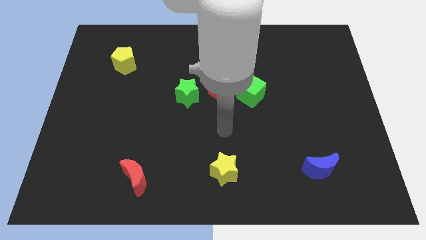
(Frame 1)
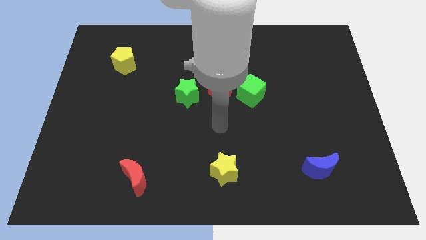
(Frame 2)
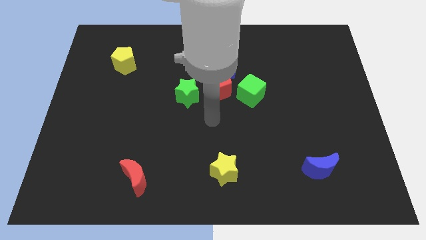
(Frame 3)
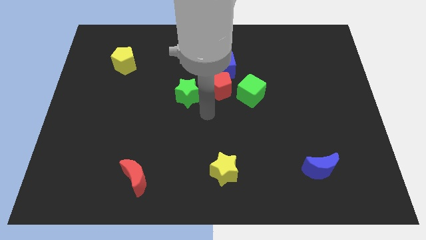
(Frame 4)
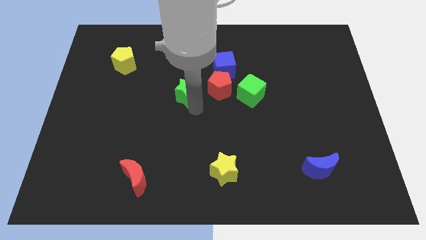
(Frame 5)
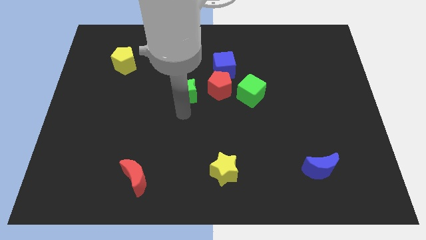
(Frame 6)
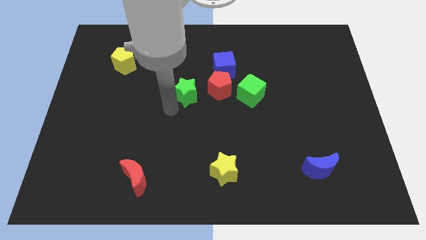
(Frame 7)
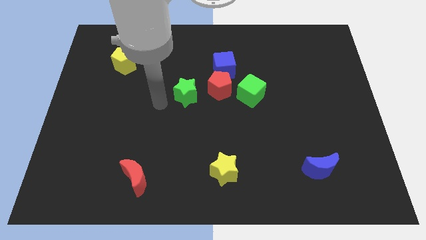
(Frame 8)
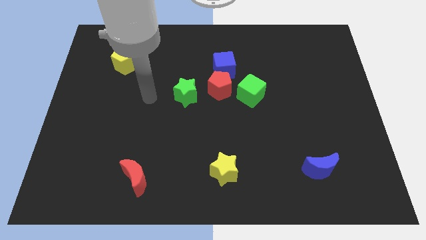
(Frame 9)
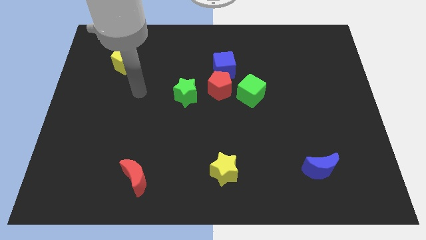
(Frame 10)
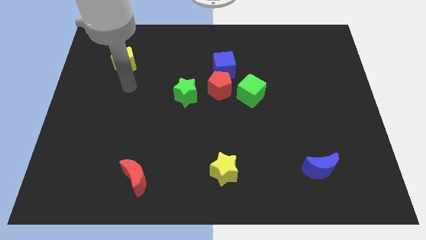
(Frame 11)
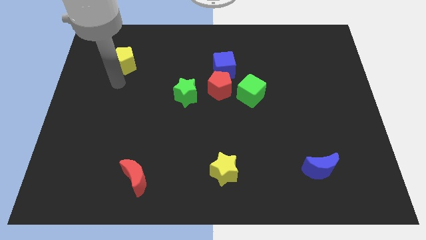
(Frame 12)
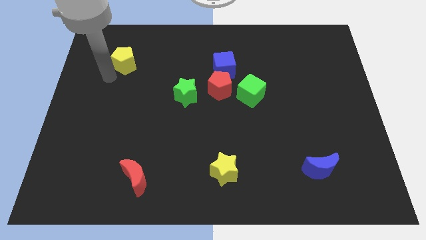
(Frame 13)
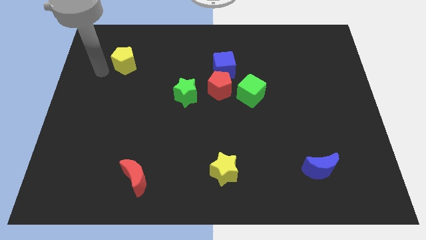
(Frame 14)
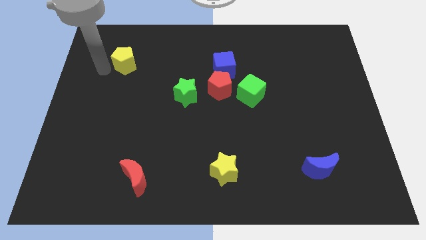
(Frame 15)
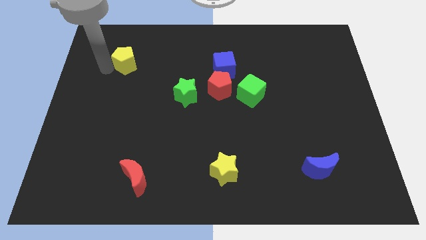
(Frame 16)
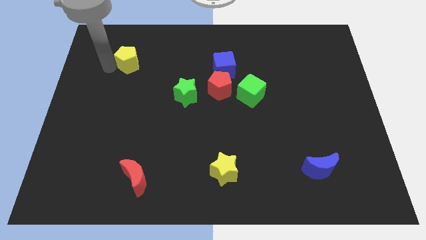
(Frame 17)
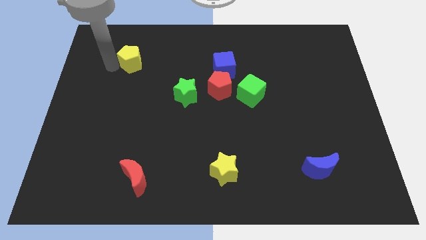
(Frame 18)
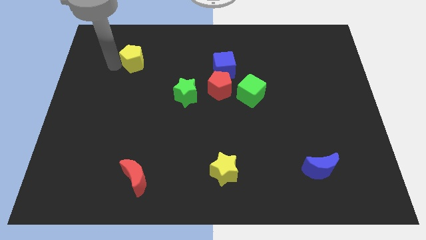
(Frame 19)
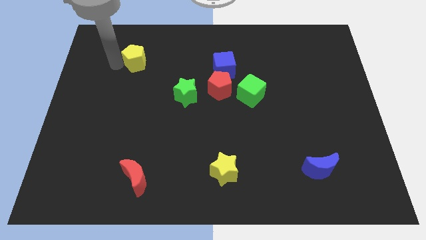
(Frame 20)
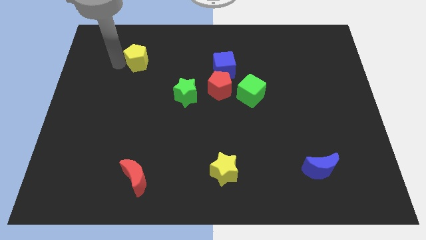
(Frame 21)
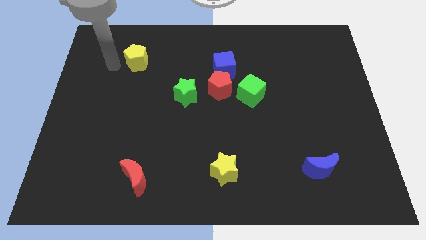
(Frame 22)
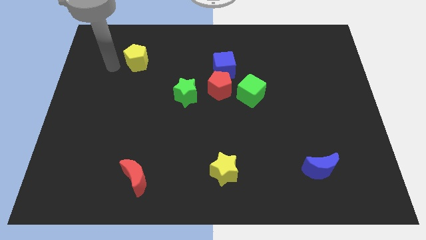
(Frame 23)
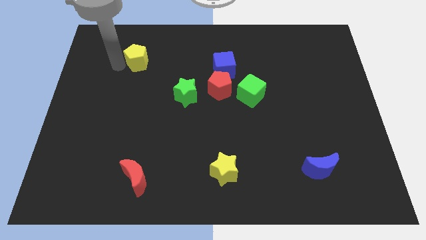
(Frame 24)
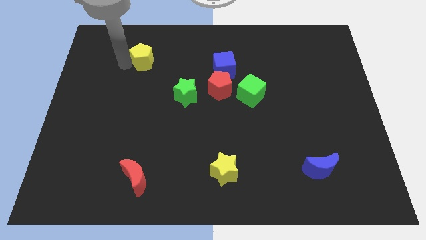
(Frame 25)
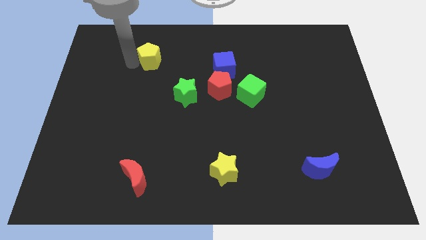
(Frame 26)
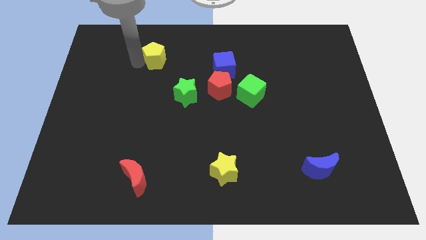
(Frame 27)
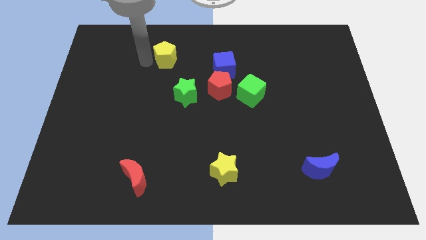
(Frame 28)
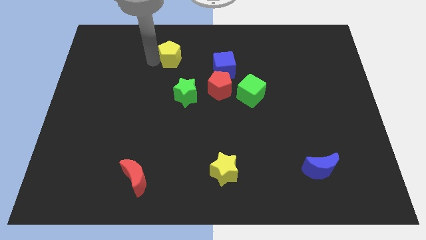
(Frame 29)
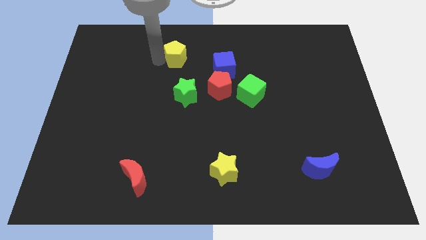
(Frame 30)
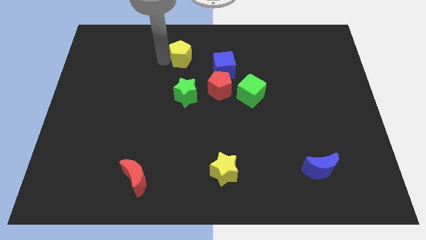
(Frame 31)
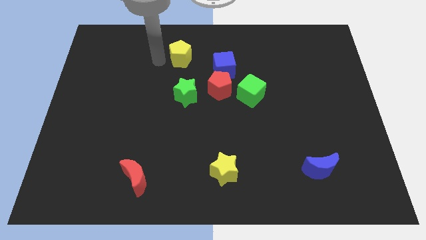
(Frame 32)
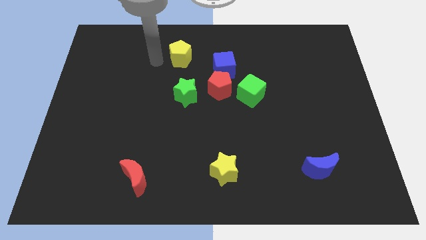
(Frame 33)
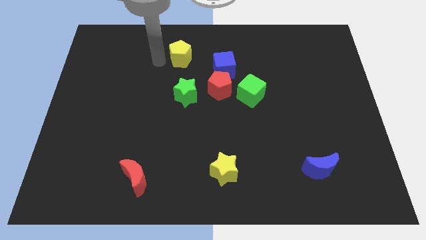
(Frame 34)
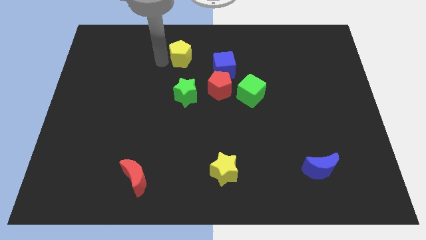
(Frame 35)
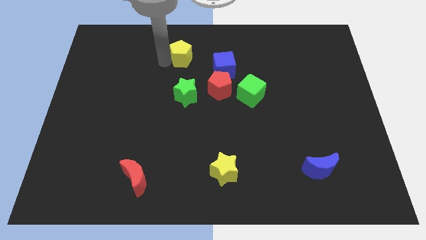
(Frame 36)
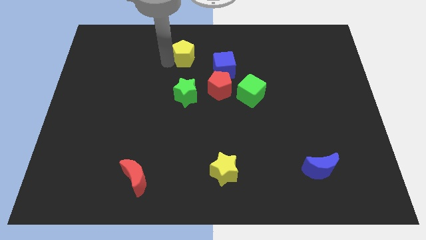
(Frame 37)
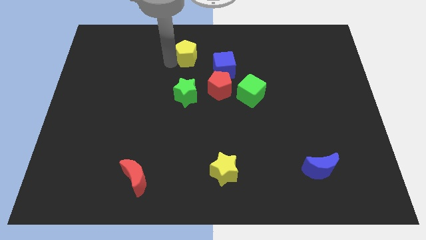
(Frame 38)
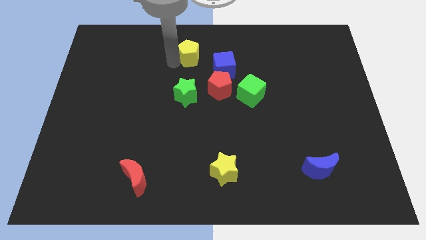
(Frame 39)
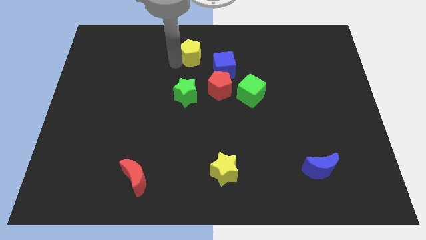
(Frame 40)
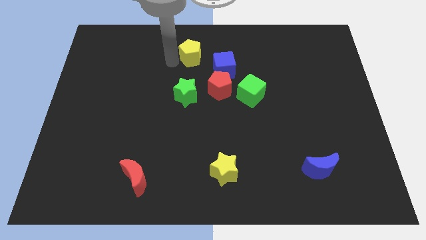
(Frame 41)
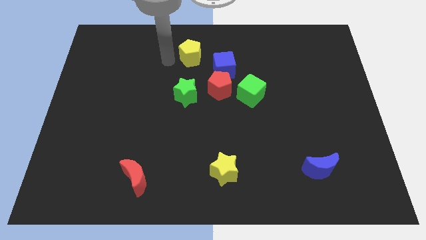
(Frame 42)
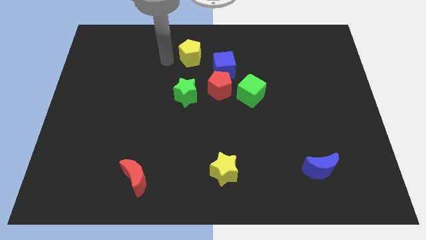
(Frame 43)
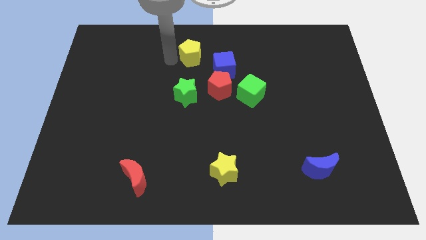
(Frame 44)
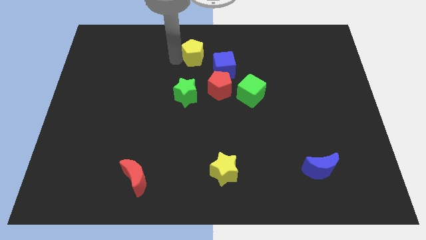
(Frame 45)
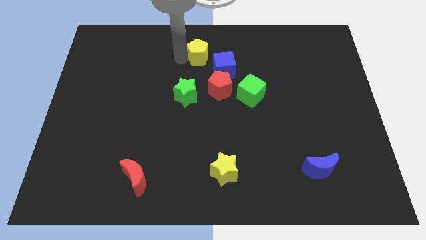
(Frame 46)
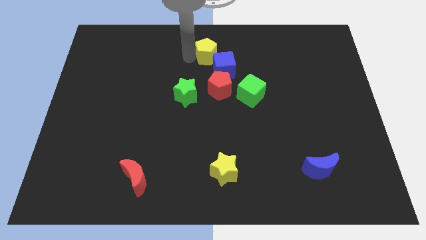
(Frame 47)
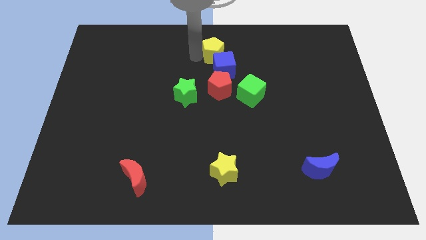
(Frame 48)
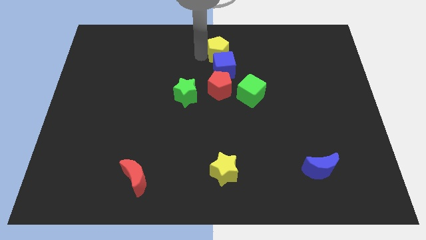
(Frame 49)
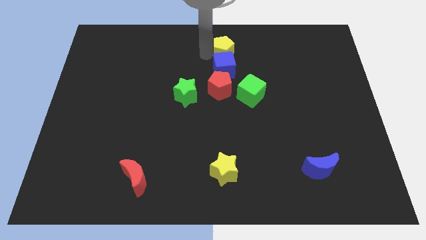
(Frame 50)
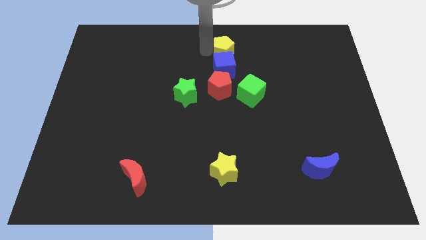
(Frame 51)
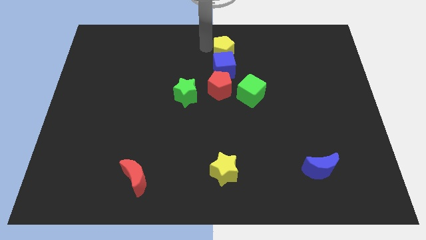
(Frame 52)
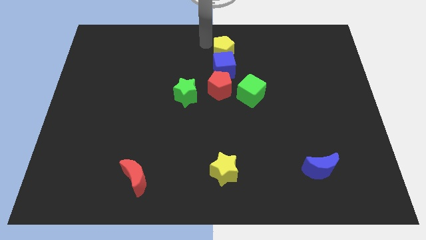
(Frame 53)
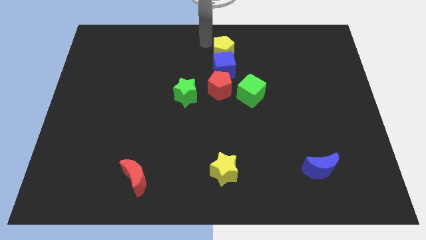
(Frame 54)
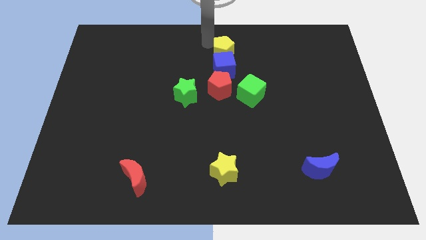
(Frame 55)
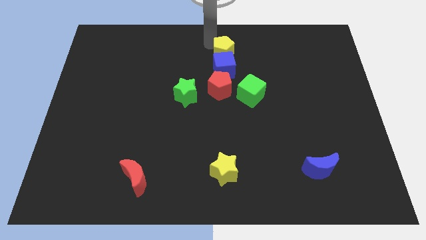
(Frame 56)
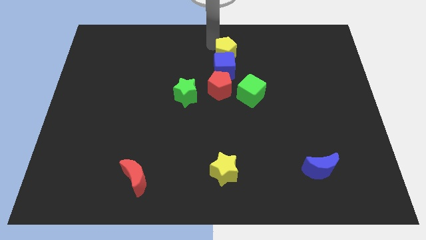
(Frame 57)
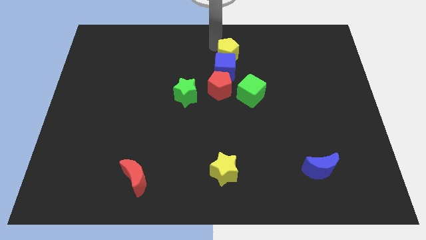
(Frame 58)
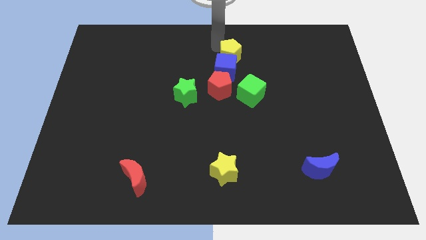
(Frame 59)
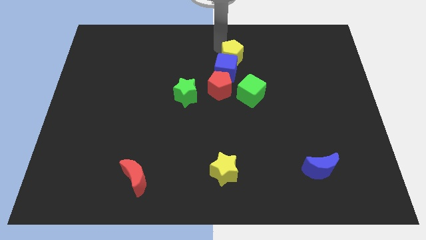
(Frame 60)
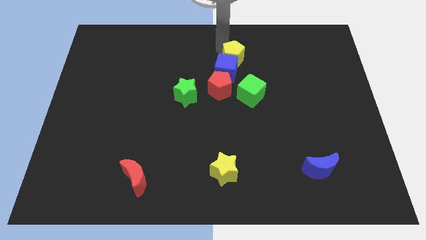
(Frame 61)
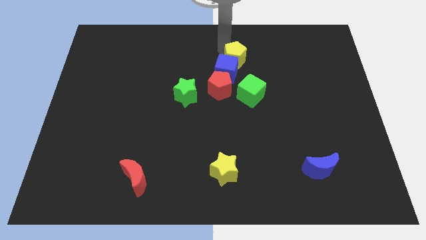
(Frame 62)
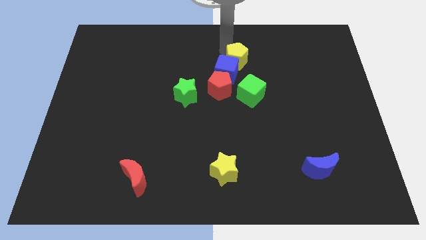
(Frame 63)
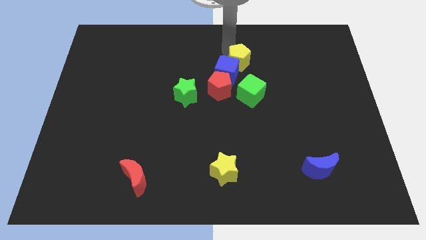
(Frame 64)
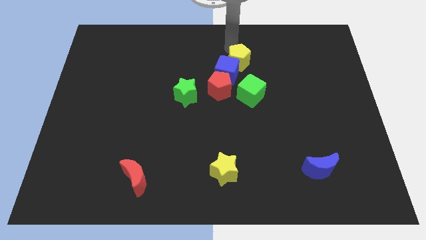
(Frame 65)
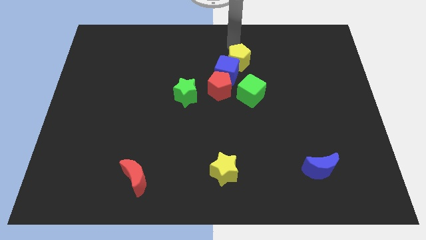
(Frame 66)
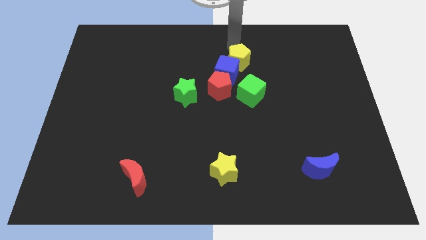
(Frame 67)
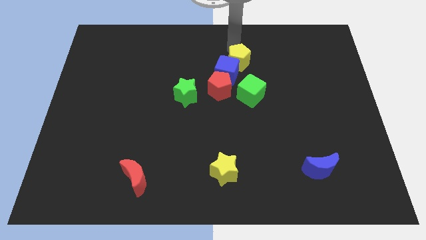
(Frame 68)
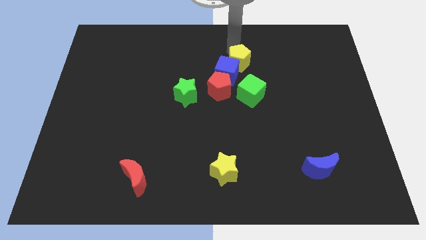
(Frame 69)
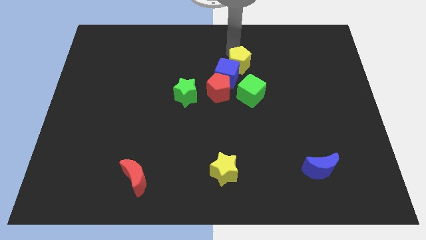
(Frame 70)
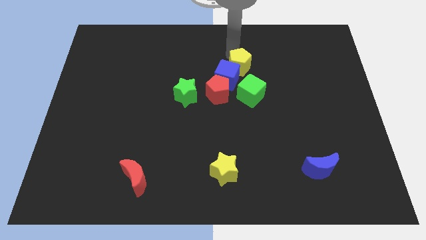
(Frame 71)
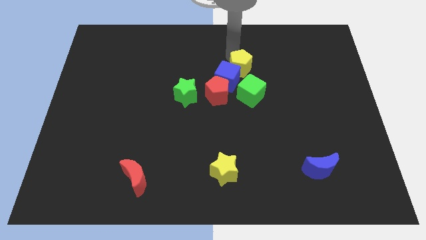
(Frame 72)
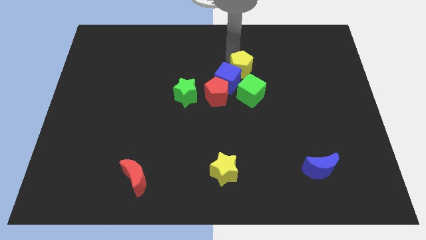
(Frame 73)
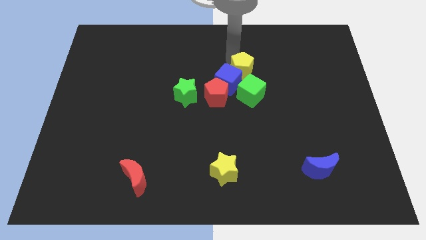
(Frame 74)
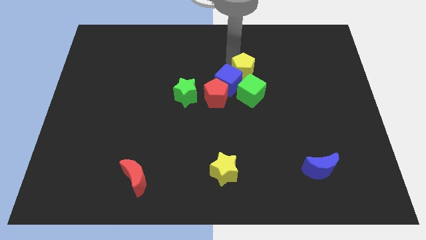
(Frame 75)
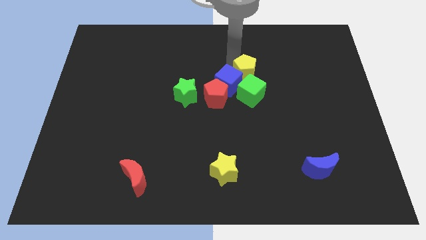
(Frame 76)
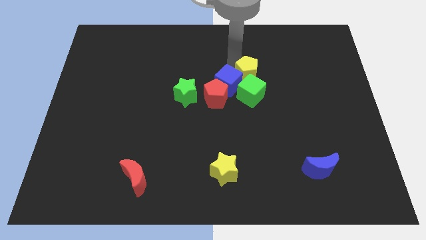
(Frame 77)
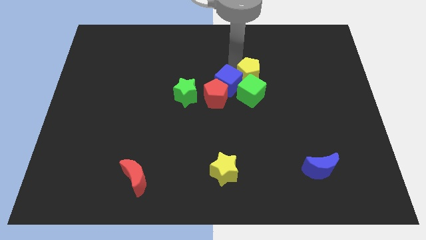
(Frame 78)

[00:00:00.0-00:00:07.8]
move the yellow pentagon next to the green cube
